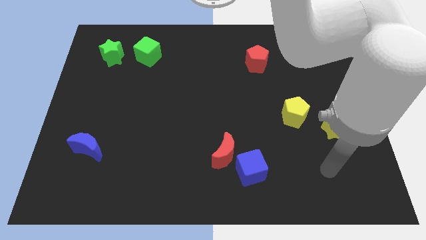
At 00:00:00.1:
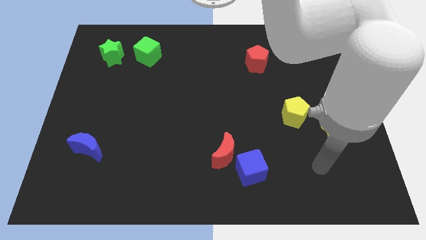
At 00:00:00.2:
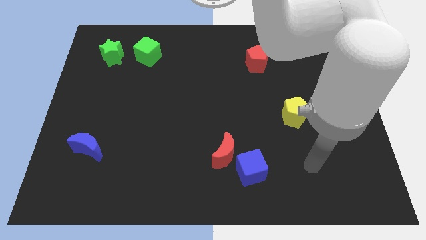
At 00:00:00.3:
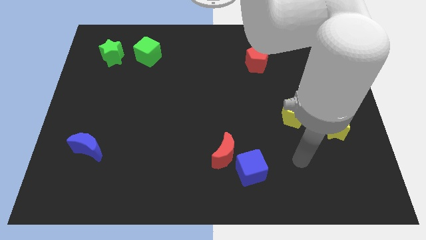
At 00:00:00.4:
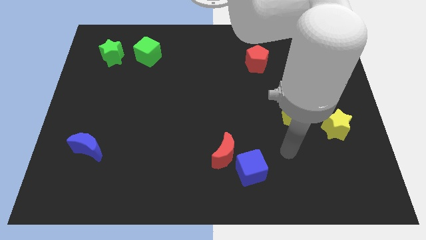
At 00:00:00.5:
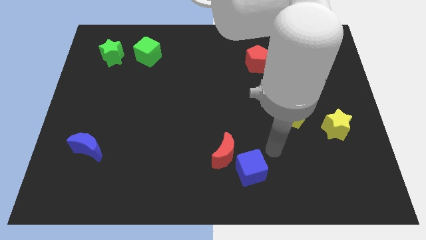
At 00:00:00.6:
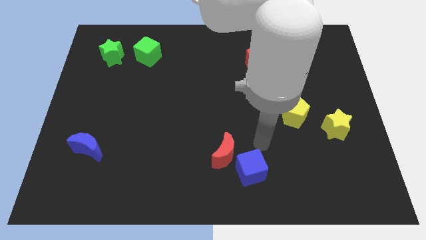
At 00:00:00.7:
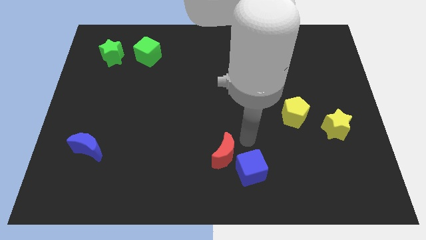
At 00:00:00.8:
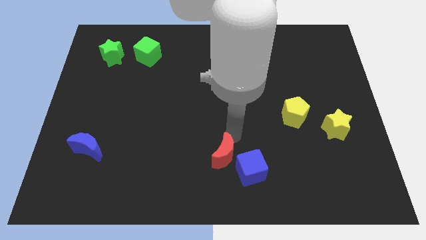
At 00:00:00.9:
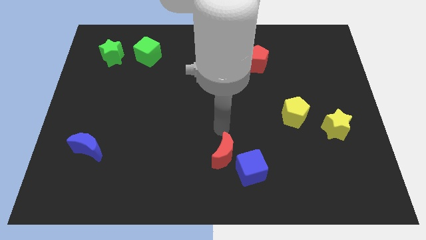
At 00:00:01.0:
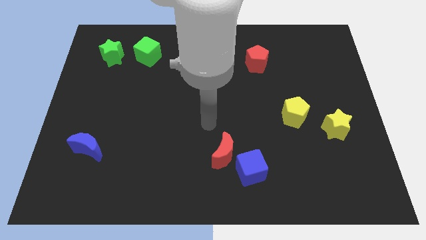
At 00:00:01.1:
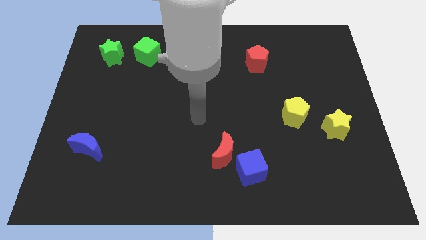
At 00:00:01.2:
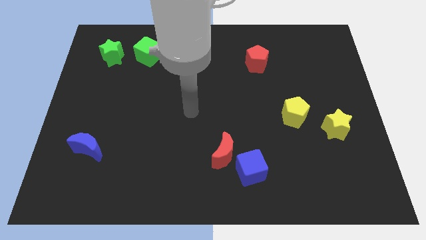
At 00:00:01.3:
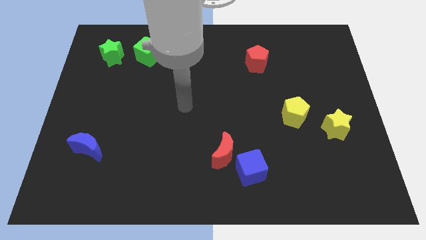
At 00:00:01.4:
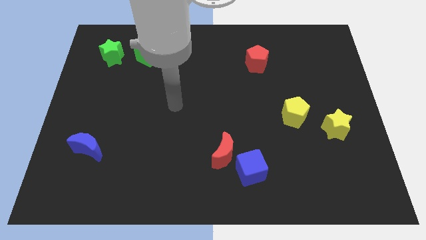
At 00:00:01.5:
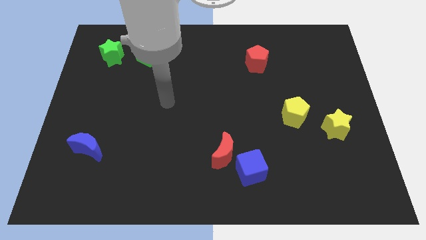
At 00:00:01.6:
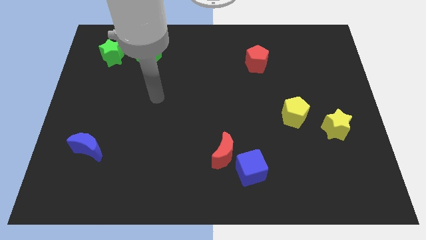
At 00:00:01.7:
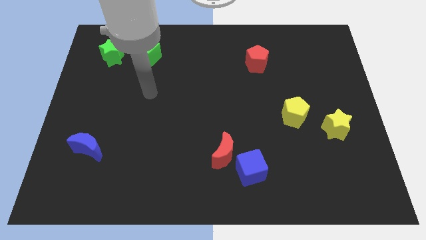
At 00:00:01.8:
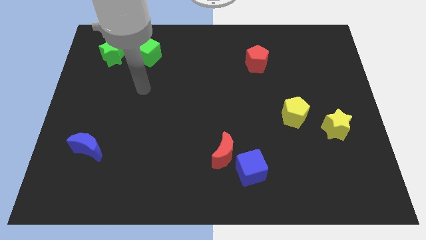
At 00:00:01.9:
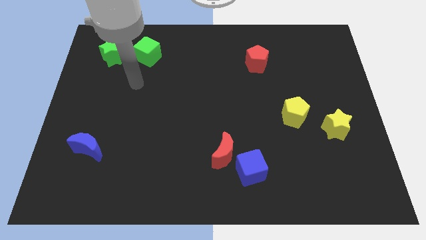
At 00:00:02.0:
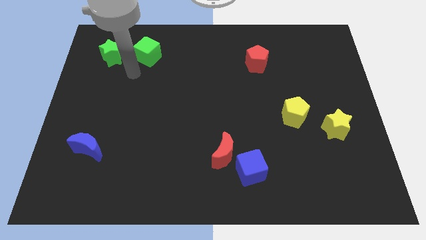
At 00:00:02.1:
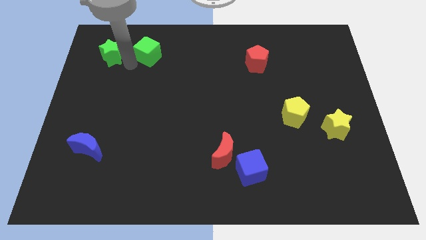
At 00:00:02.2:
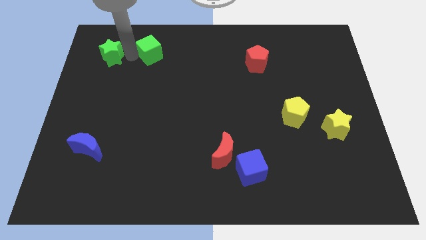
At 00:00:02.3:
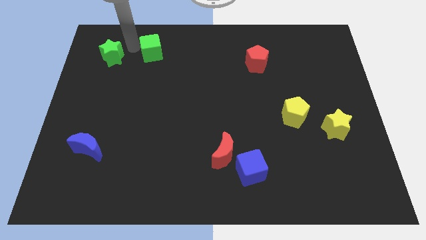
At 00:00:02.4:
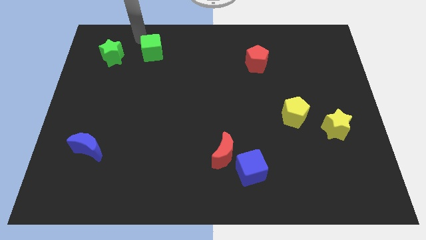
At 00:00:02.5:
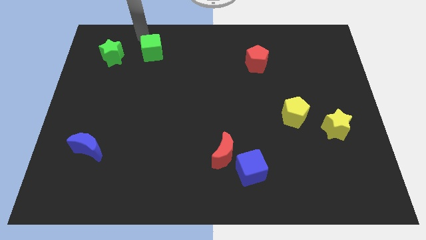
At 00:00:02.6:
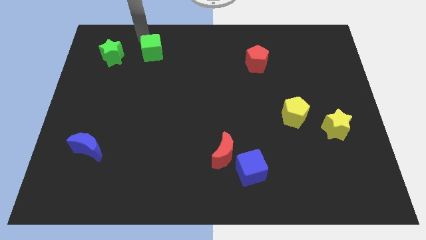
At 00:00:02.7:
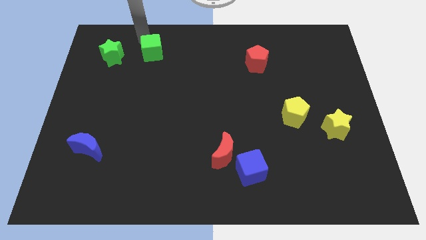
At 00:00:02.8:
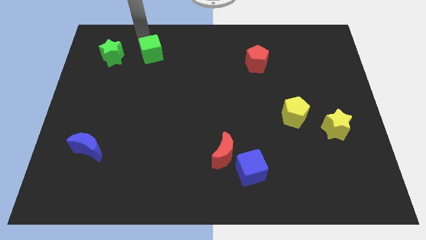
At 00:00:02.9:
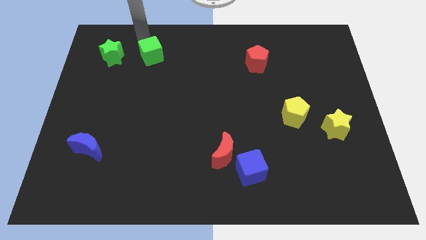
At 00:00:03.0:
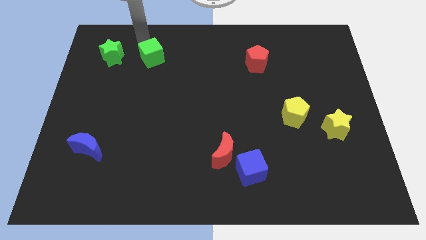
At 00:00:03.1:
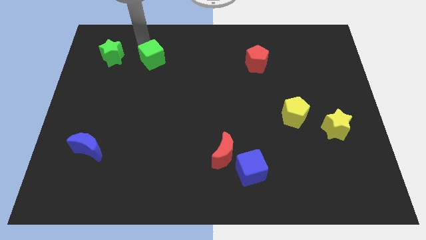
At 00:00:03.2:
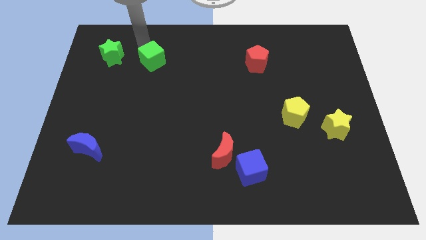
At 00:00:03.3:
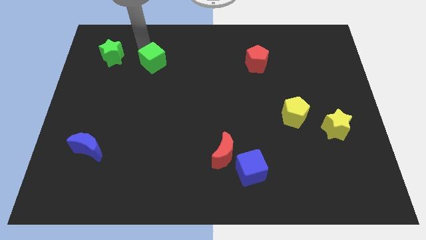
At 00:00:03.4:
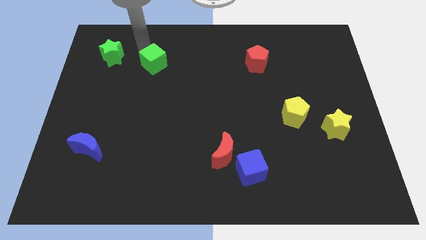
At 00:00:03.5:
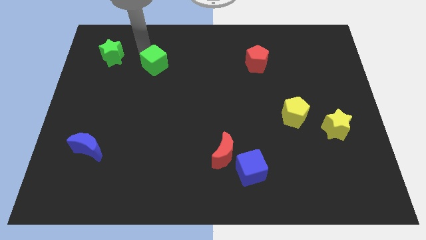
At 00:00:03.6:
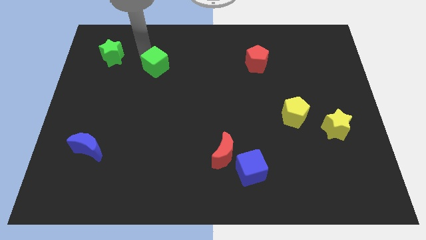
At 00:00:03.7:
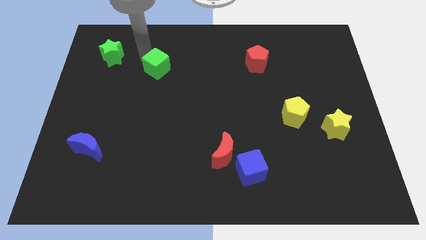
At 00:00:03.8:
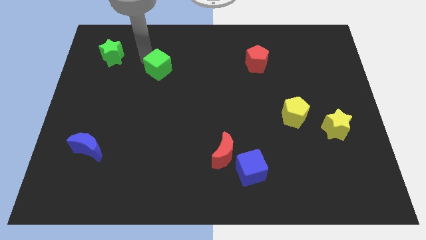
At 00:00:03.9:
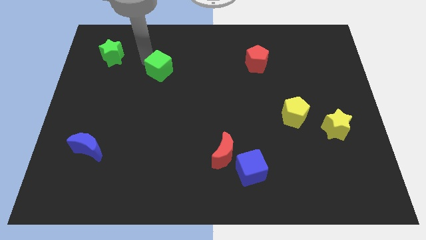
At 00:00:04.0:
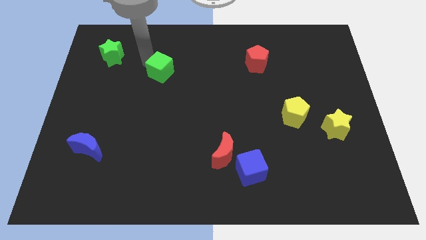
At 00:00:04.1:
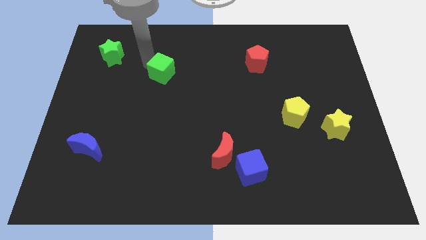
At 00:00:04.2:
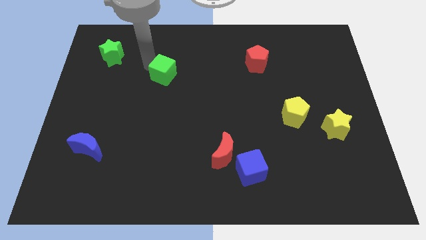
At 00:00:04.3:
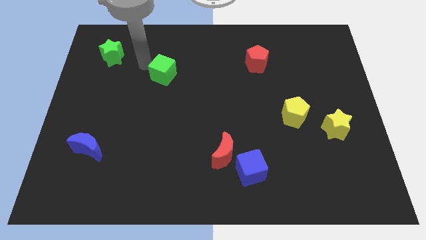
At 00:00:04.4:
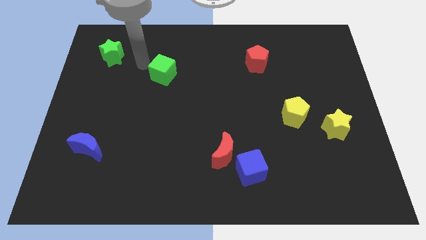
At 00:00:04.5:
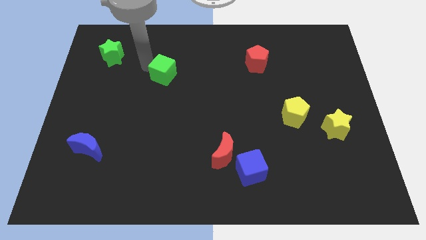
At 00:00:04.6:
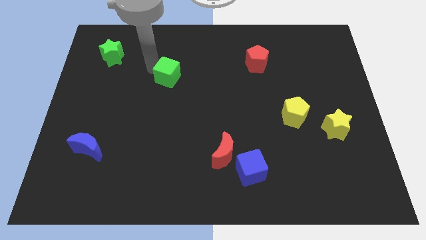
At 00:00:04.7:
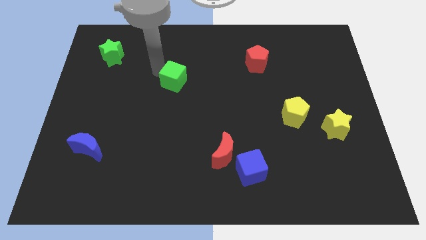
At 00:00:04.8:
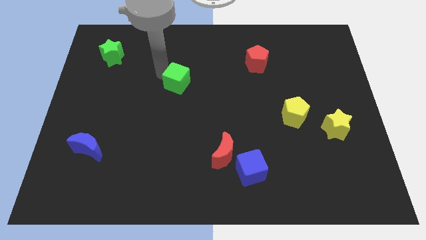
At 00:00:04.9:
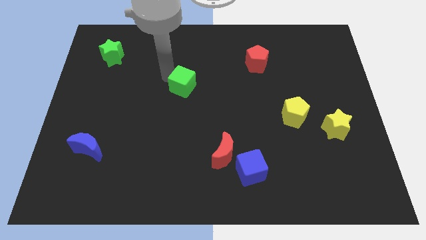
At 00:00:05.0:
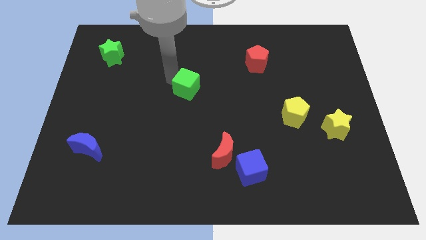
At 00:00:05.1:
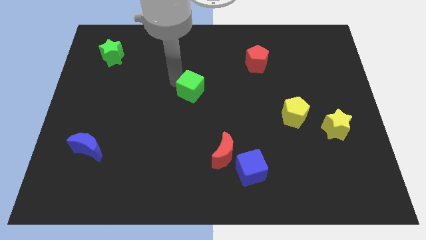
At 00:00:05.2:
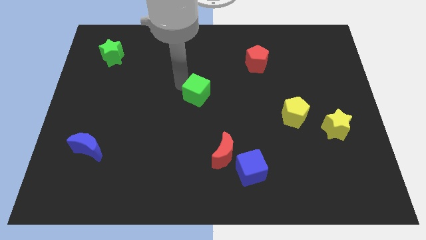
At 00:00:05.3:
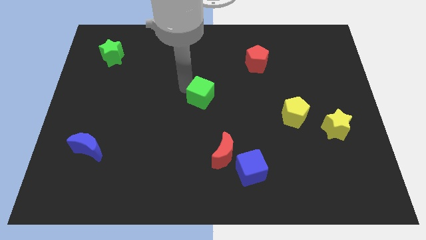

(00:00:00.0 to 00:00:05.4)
move the green cube diagonally downwards and right

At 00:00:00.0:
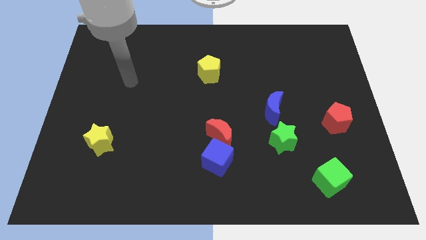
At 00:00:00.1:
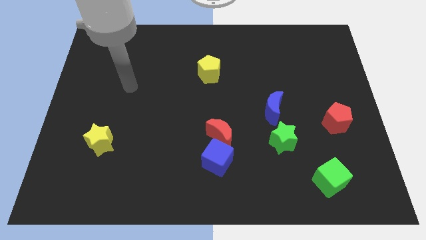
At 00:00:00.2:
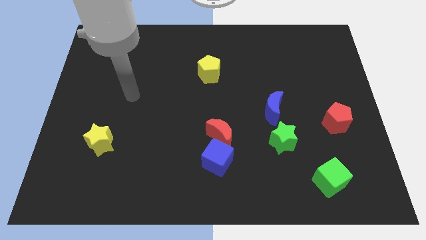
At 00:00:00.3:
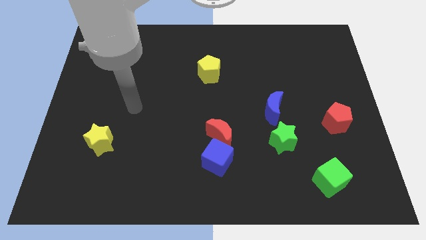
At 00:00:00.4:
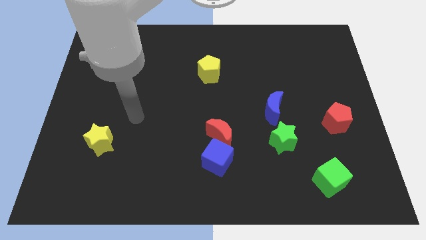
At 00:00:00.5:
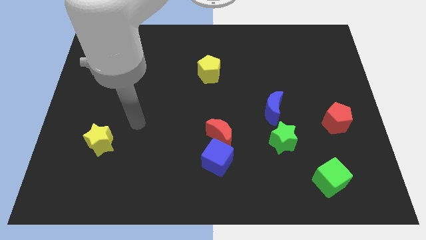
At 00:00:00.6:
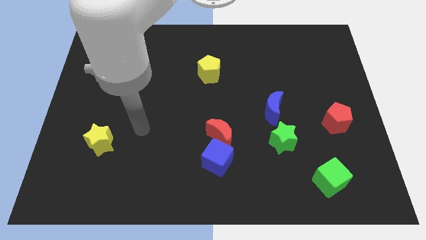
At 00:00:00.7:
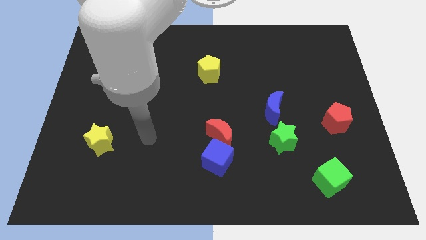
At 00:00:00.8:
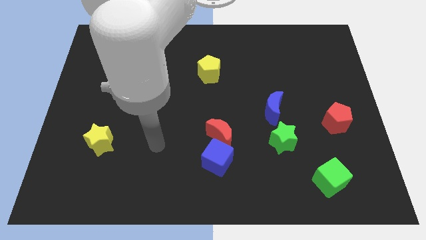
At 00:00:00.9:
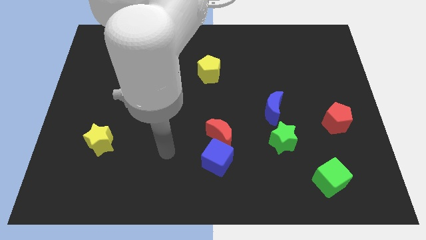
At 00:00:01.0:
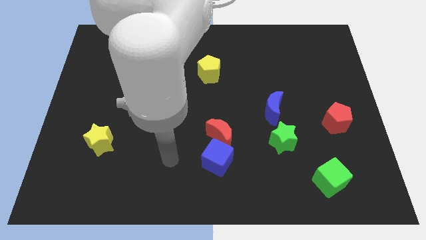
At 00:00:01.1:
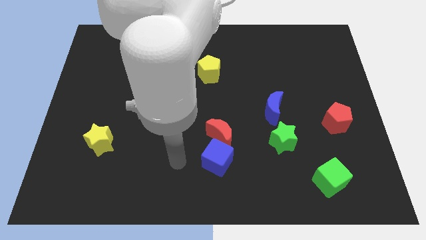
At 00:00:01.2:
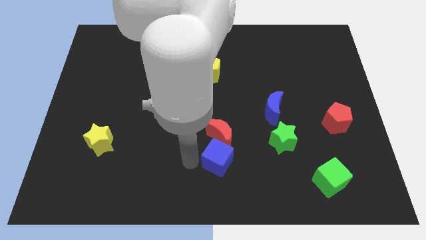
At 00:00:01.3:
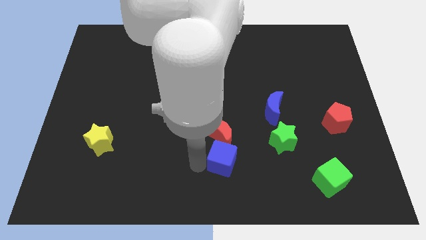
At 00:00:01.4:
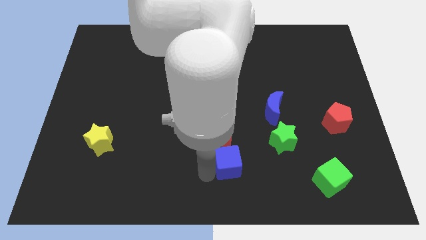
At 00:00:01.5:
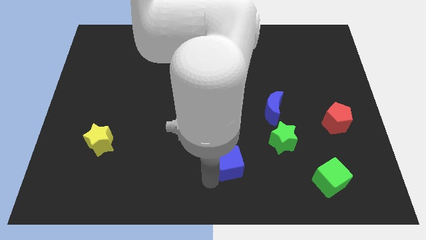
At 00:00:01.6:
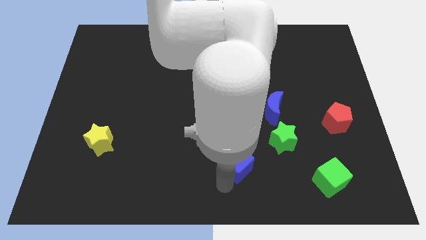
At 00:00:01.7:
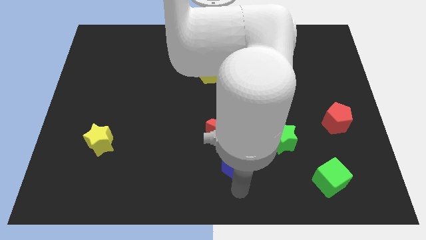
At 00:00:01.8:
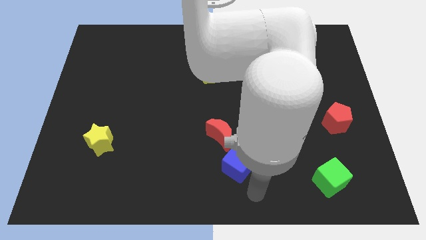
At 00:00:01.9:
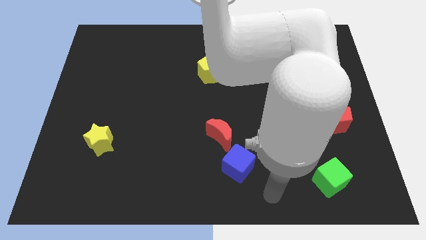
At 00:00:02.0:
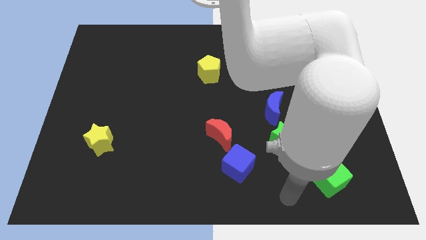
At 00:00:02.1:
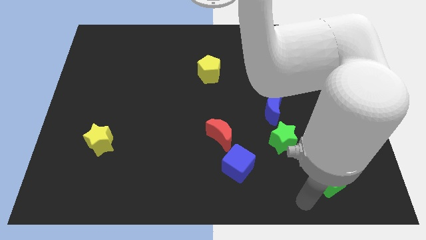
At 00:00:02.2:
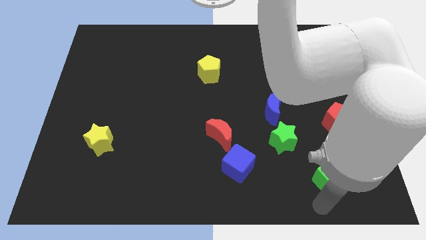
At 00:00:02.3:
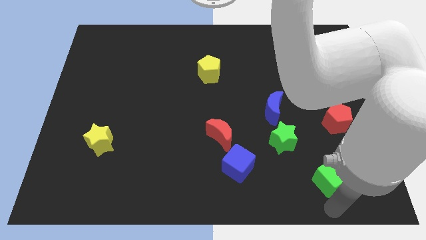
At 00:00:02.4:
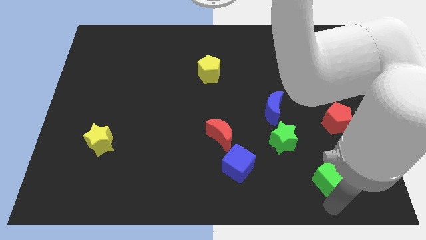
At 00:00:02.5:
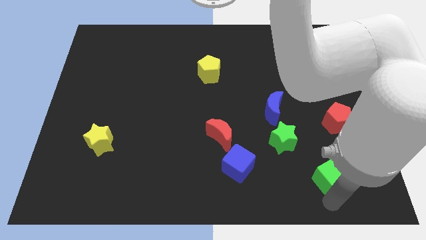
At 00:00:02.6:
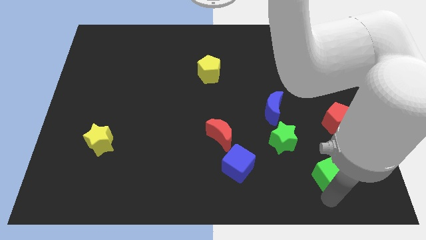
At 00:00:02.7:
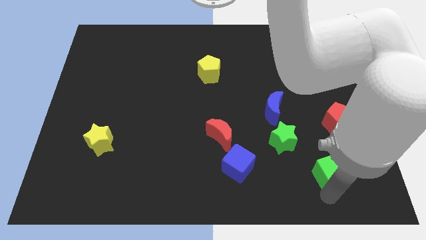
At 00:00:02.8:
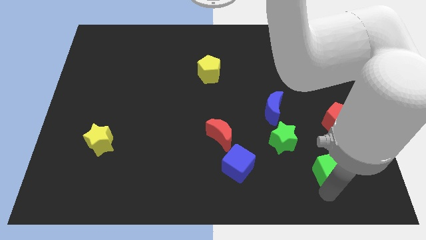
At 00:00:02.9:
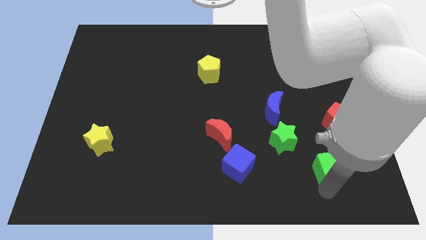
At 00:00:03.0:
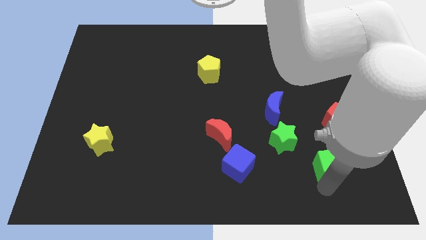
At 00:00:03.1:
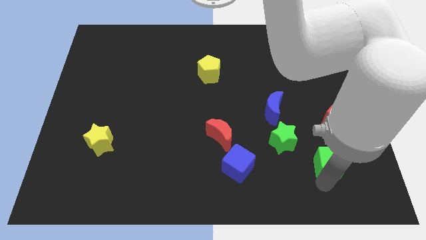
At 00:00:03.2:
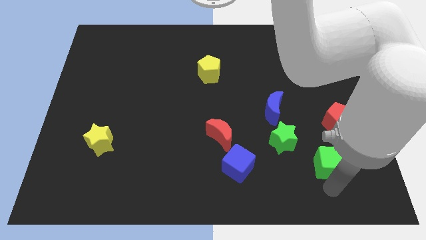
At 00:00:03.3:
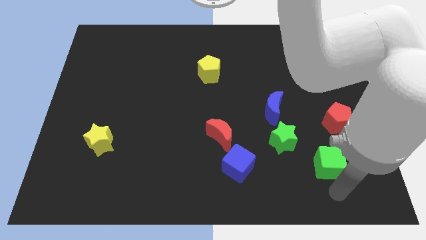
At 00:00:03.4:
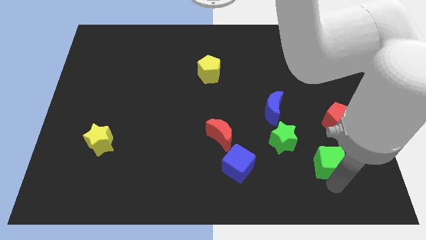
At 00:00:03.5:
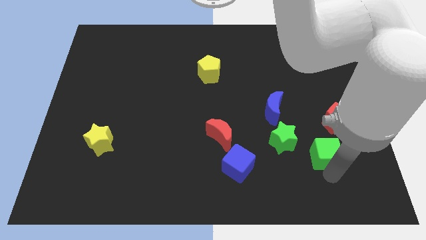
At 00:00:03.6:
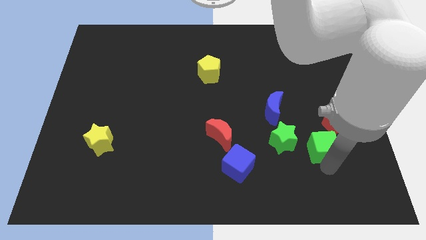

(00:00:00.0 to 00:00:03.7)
move the green cube up slightly
